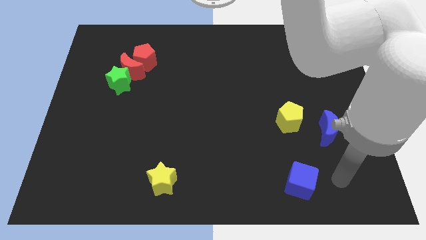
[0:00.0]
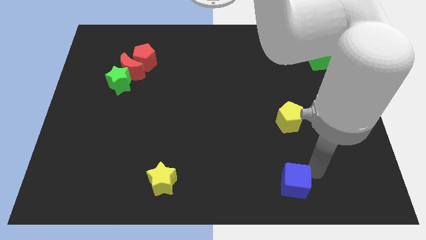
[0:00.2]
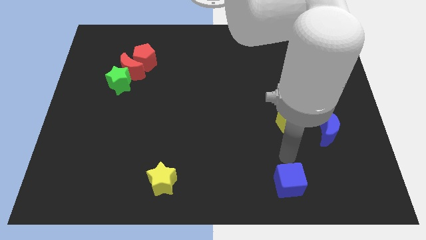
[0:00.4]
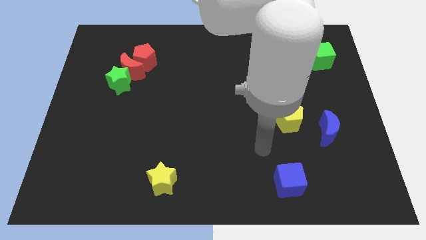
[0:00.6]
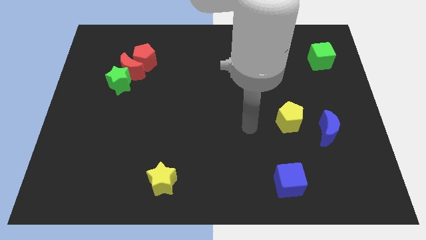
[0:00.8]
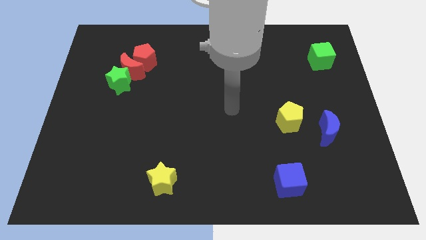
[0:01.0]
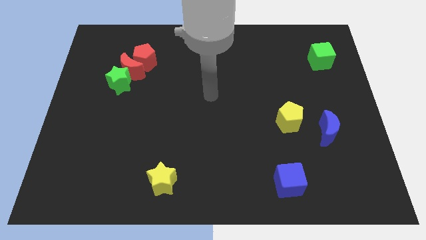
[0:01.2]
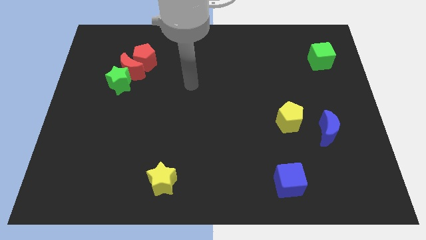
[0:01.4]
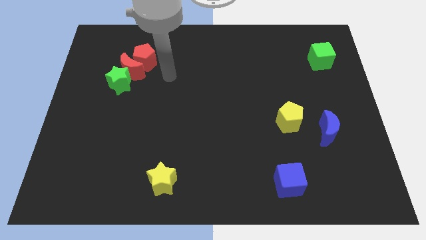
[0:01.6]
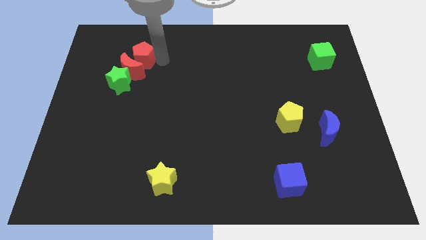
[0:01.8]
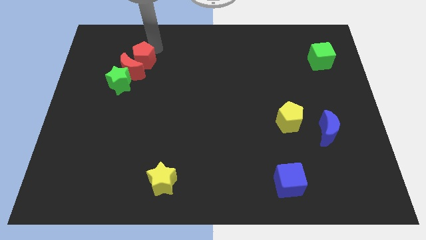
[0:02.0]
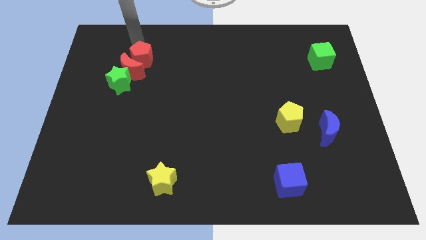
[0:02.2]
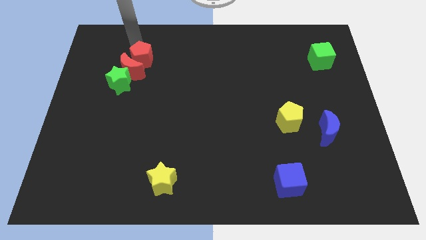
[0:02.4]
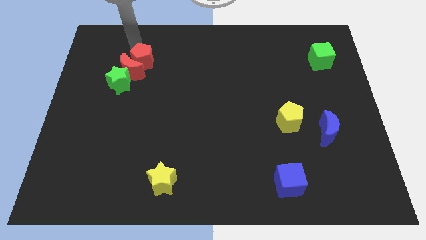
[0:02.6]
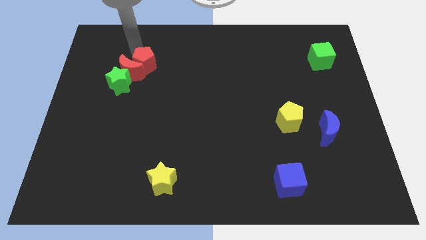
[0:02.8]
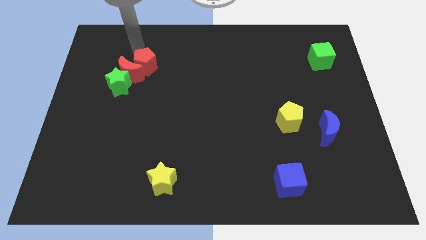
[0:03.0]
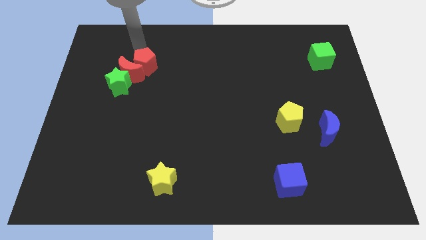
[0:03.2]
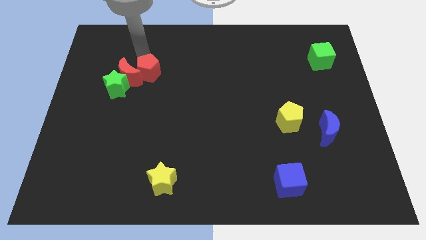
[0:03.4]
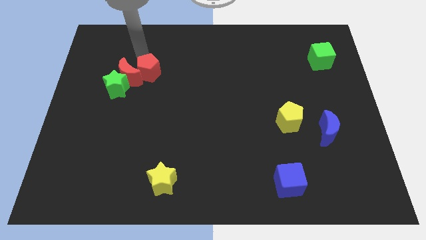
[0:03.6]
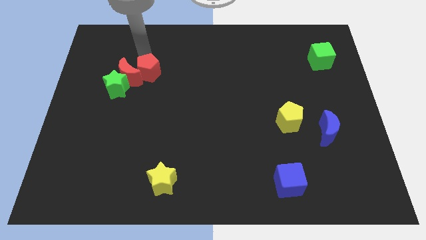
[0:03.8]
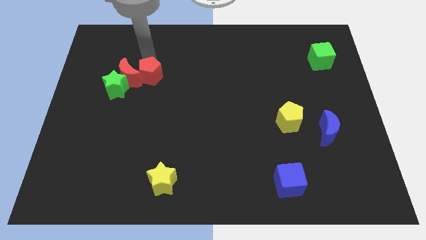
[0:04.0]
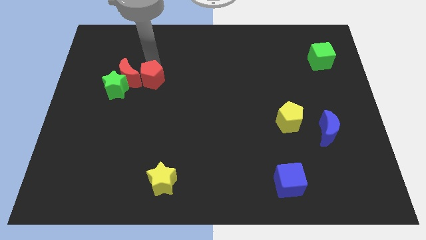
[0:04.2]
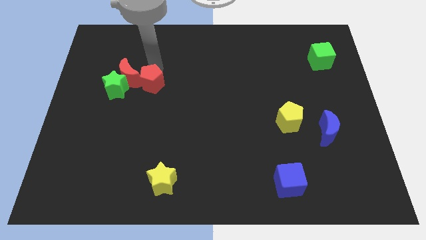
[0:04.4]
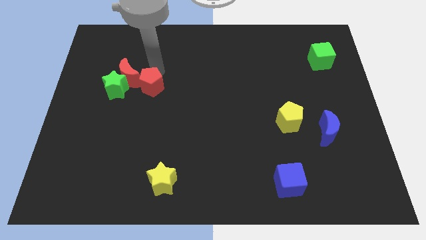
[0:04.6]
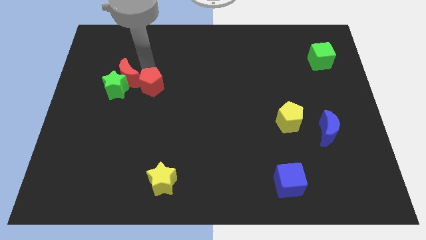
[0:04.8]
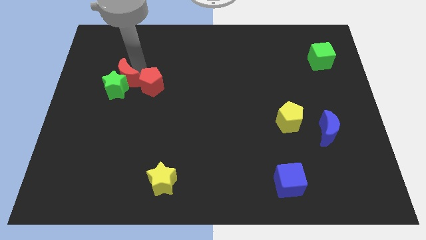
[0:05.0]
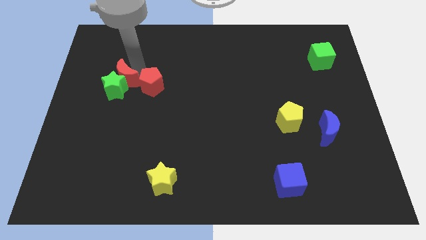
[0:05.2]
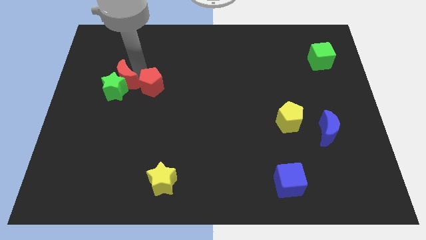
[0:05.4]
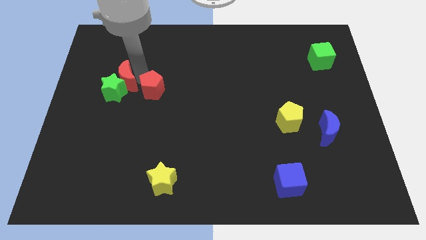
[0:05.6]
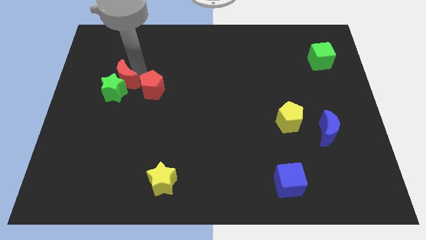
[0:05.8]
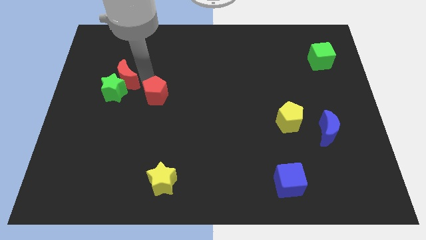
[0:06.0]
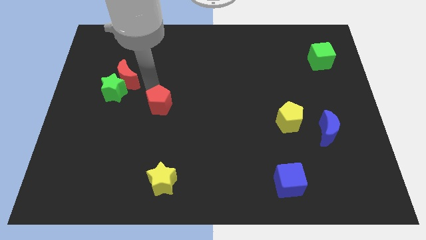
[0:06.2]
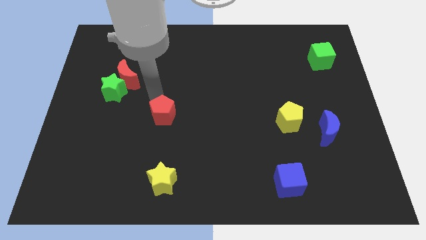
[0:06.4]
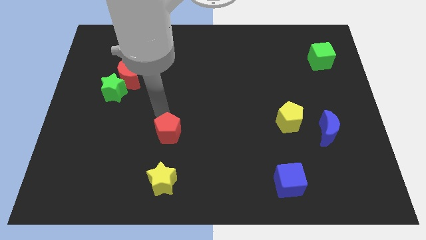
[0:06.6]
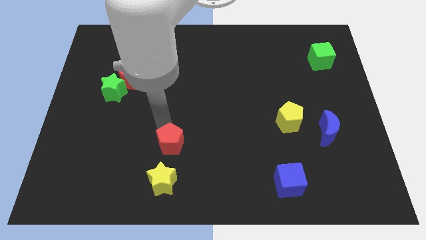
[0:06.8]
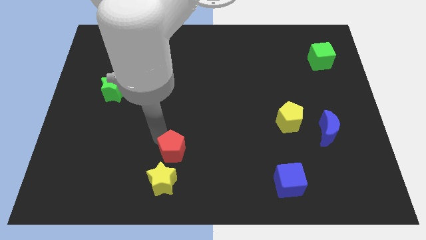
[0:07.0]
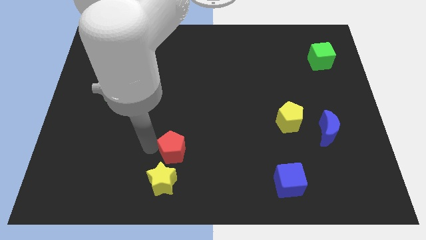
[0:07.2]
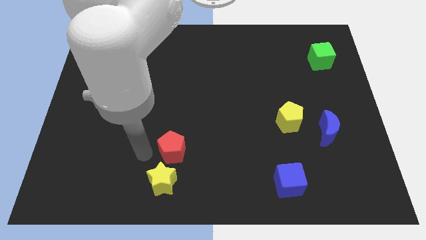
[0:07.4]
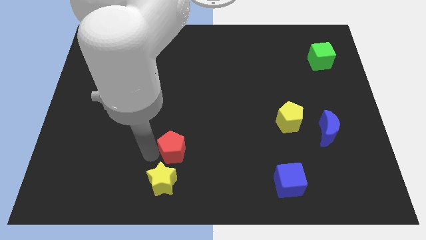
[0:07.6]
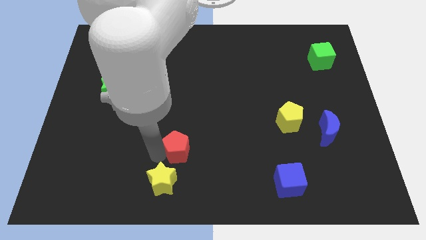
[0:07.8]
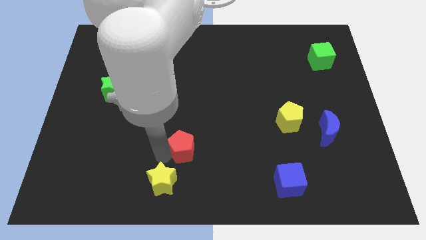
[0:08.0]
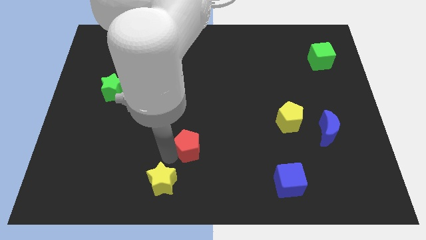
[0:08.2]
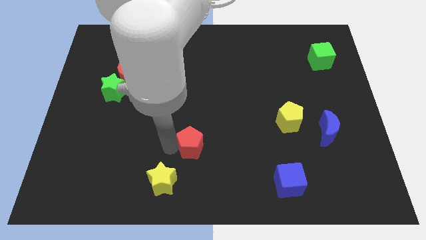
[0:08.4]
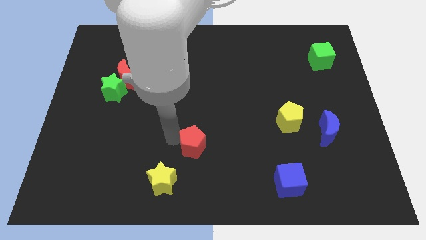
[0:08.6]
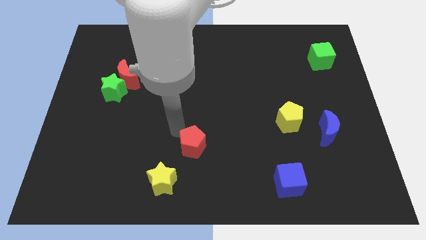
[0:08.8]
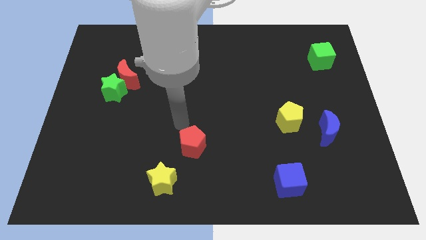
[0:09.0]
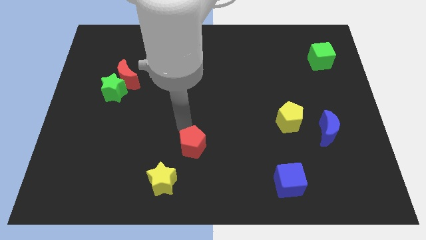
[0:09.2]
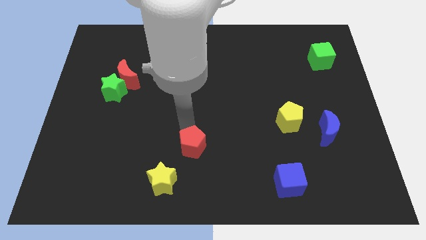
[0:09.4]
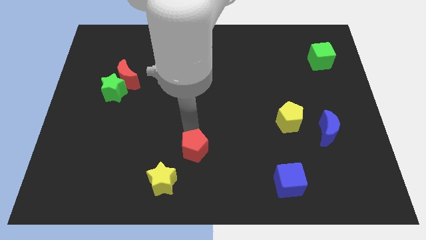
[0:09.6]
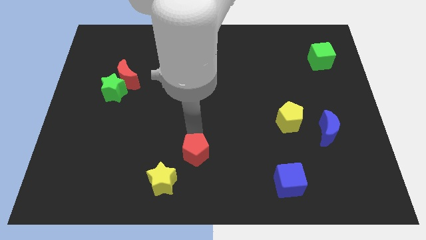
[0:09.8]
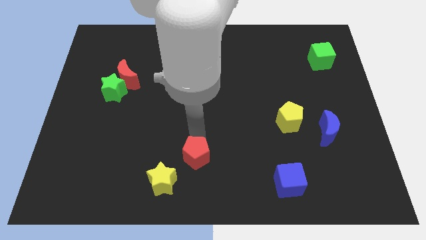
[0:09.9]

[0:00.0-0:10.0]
put the red pentagon to the bottom

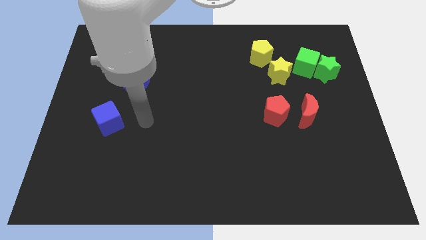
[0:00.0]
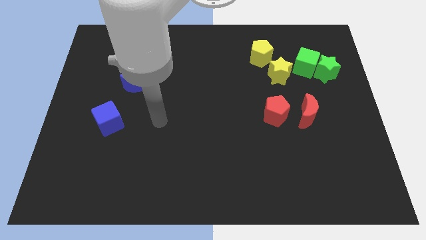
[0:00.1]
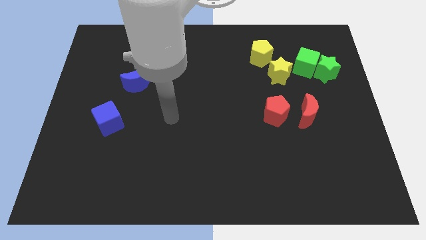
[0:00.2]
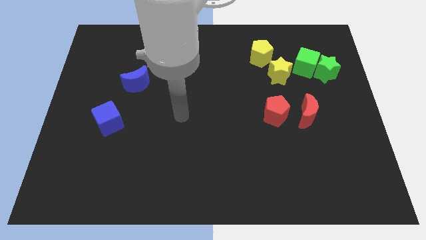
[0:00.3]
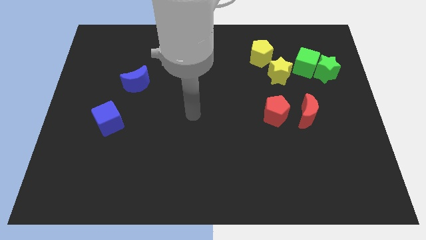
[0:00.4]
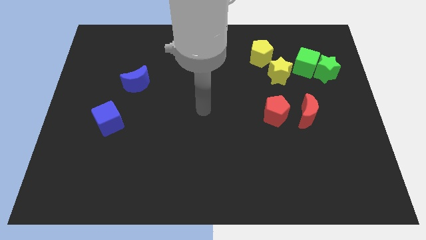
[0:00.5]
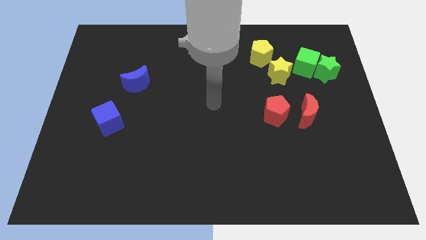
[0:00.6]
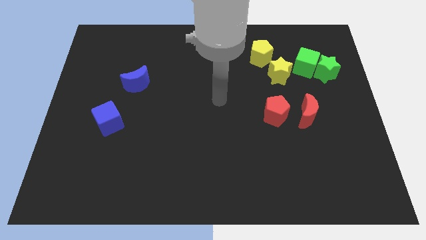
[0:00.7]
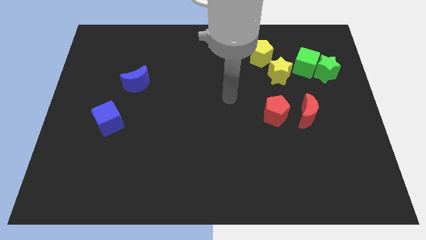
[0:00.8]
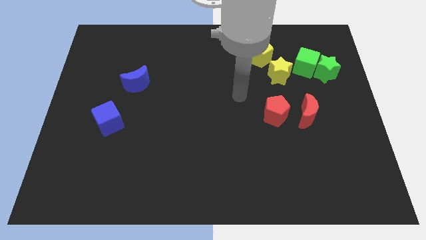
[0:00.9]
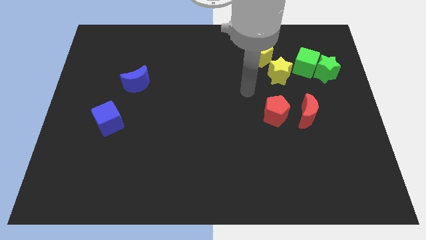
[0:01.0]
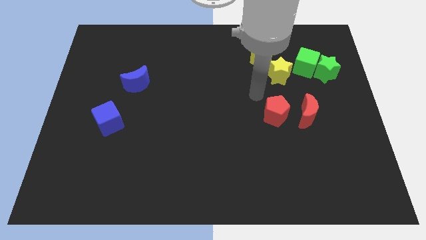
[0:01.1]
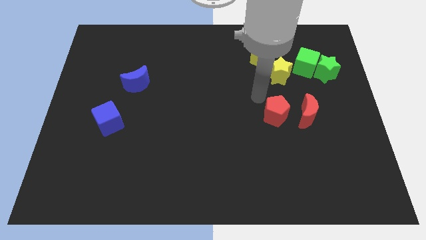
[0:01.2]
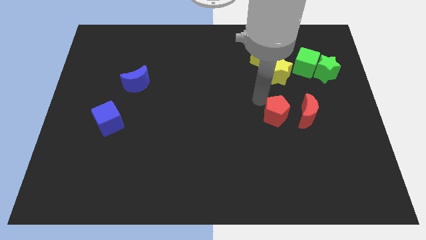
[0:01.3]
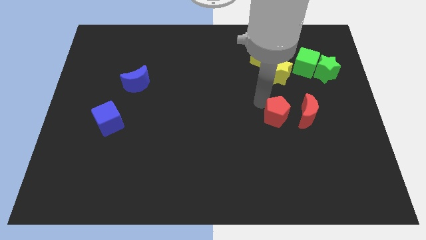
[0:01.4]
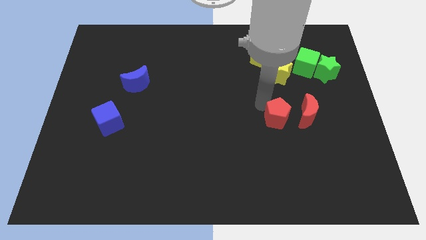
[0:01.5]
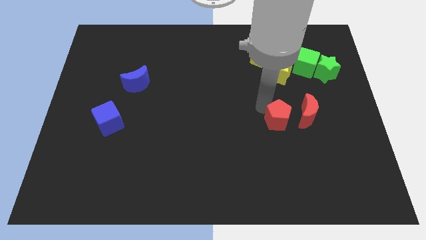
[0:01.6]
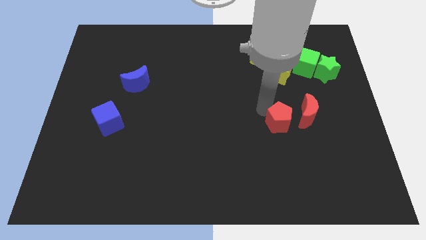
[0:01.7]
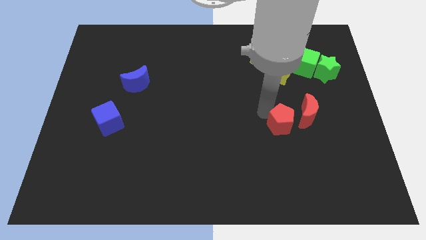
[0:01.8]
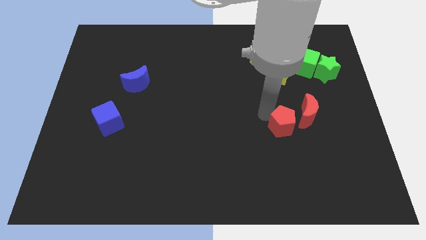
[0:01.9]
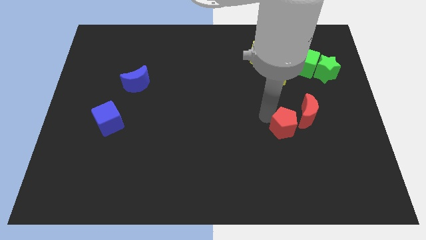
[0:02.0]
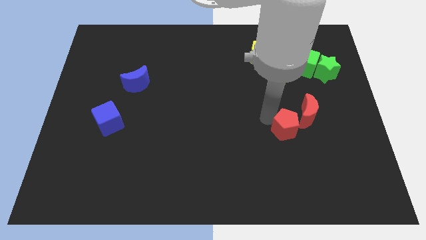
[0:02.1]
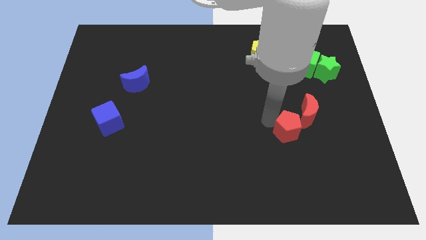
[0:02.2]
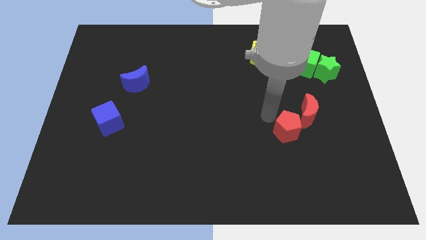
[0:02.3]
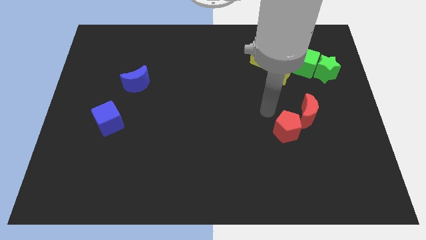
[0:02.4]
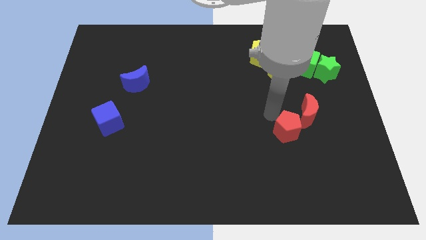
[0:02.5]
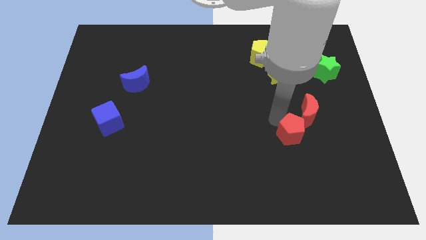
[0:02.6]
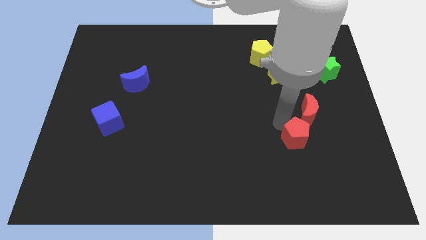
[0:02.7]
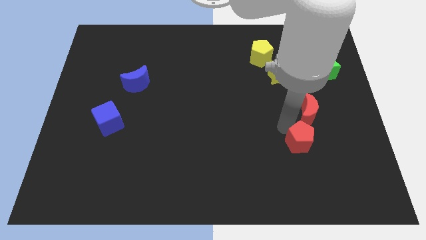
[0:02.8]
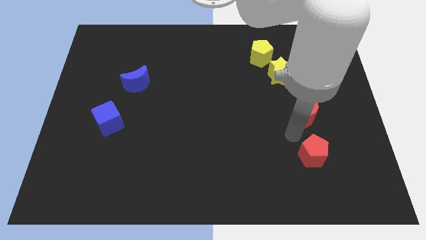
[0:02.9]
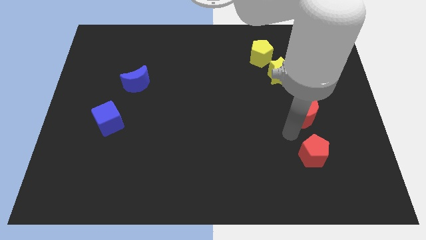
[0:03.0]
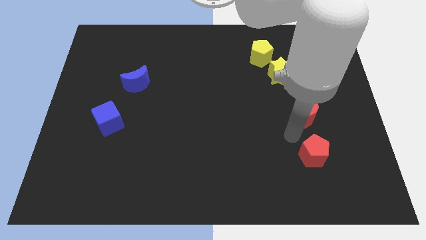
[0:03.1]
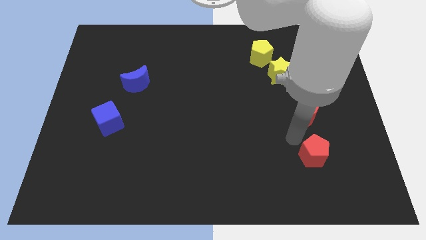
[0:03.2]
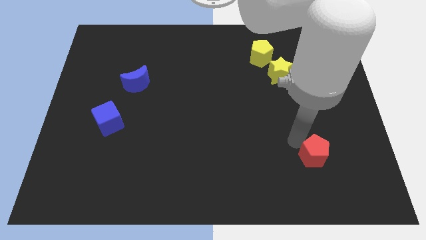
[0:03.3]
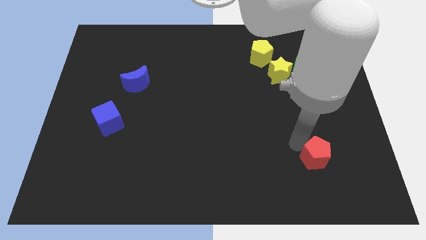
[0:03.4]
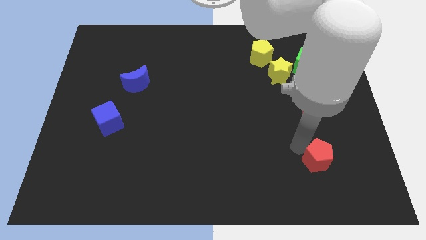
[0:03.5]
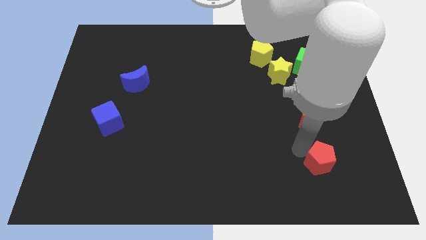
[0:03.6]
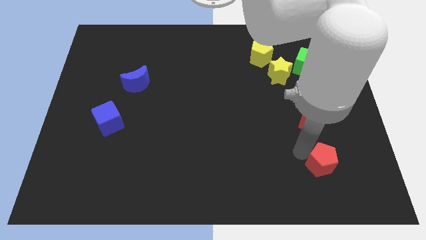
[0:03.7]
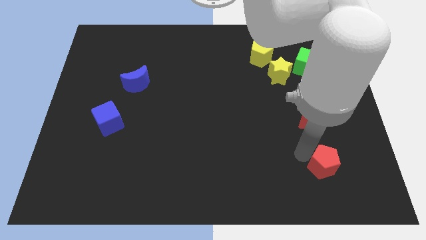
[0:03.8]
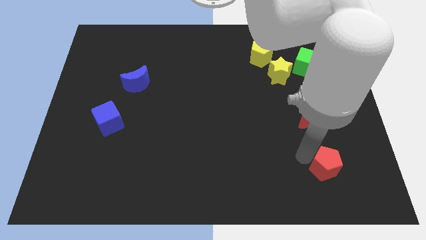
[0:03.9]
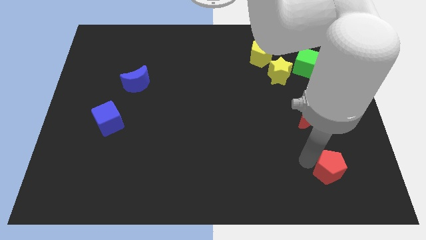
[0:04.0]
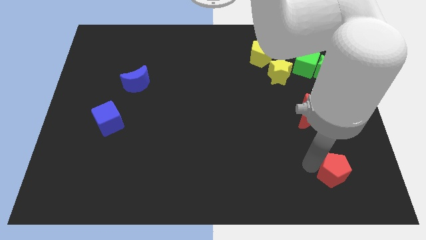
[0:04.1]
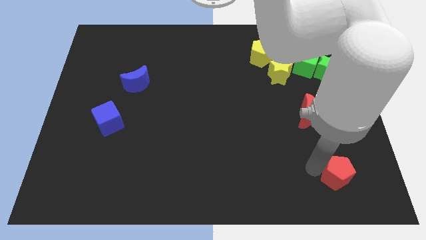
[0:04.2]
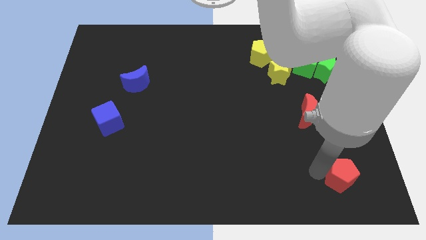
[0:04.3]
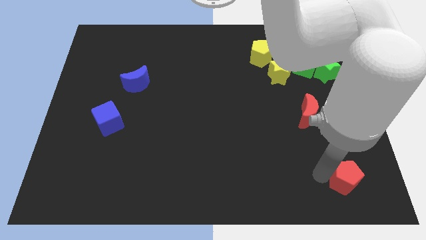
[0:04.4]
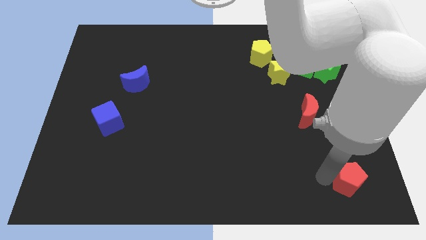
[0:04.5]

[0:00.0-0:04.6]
move the red pentagon to the bottom right corner
